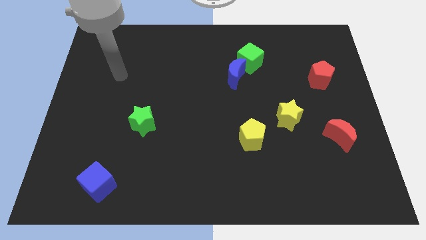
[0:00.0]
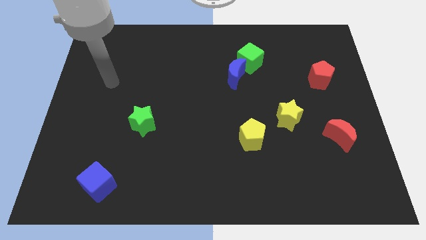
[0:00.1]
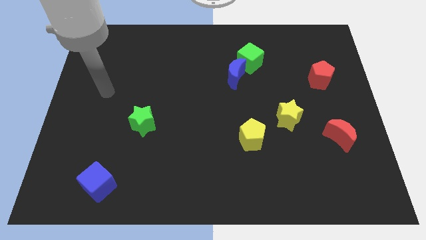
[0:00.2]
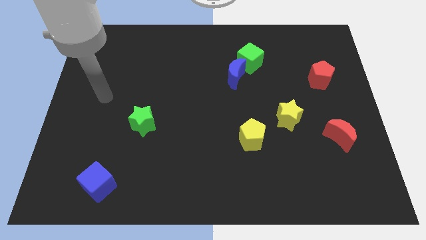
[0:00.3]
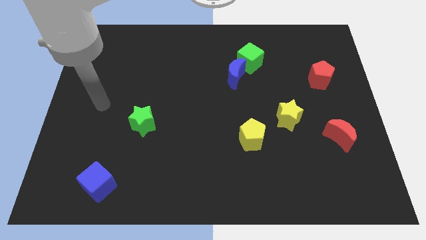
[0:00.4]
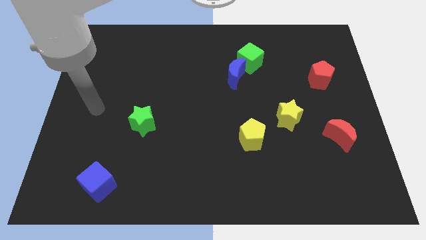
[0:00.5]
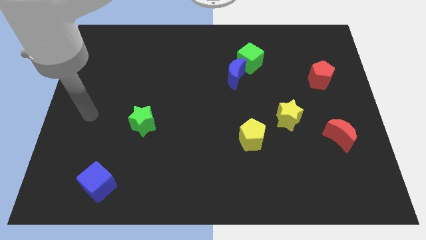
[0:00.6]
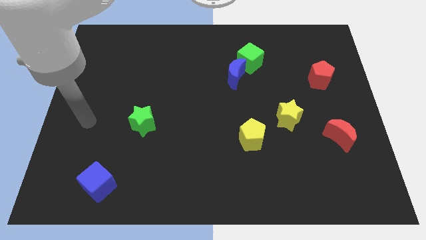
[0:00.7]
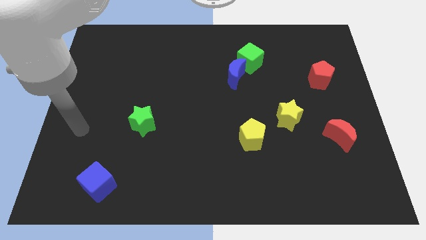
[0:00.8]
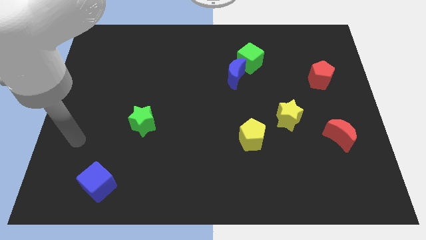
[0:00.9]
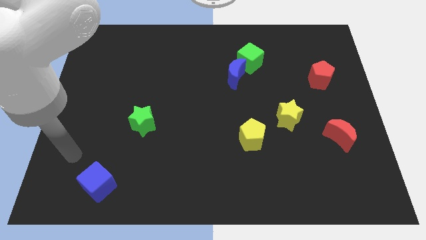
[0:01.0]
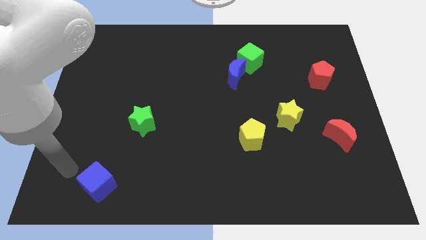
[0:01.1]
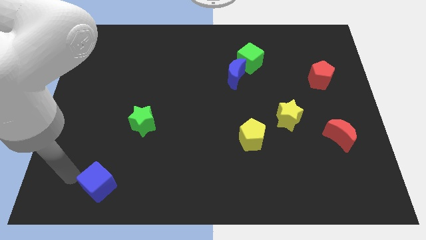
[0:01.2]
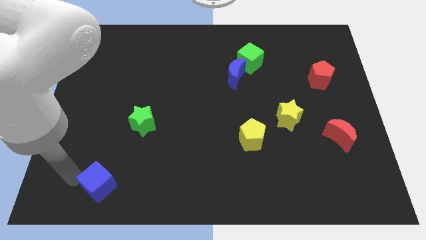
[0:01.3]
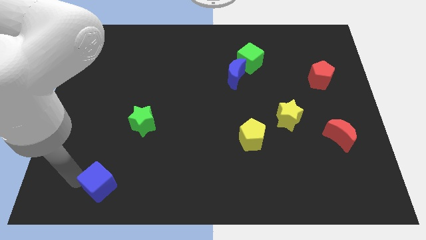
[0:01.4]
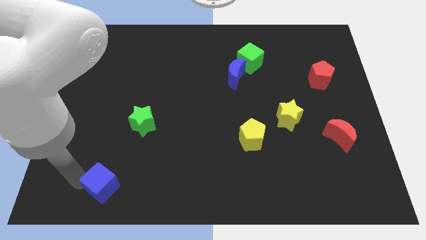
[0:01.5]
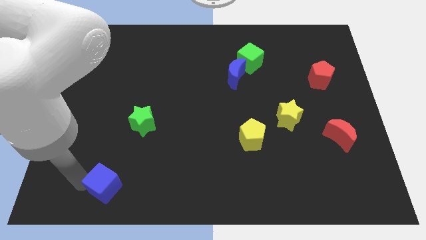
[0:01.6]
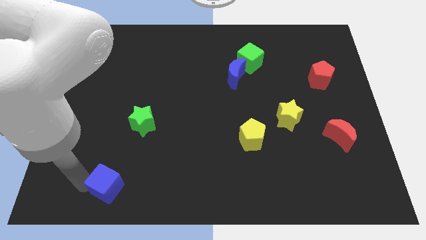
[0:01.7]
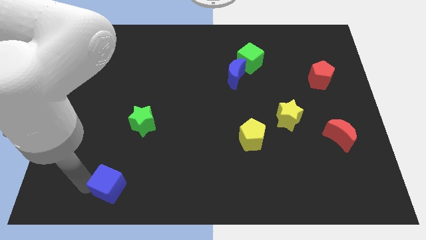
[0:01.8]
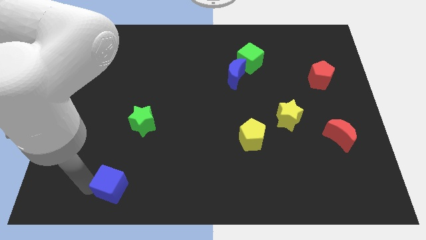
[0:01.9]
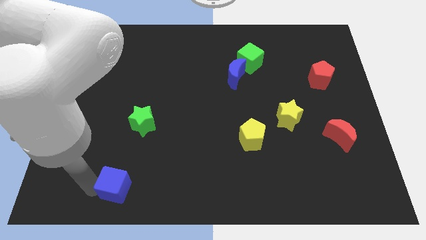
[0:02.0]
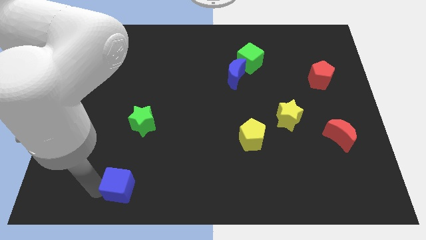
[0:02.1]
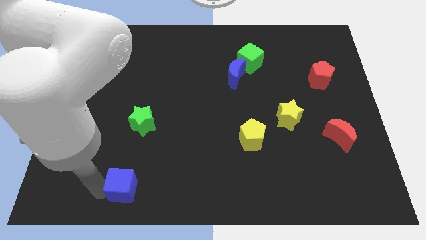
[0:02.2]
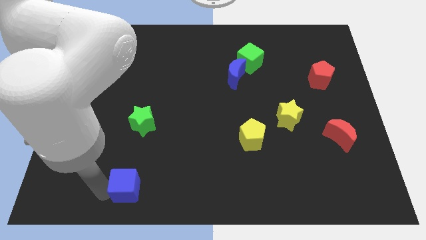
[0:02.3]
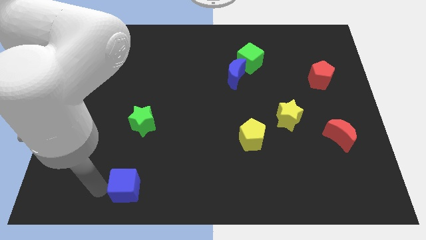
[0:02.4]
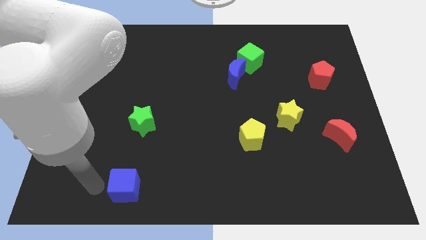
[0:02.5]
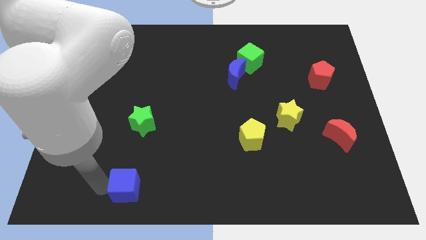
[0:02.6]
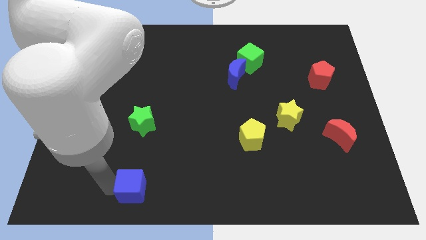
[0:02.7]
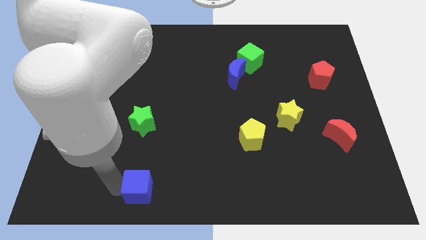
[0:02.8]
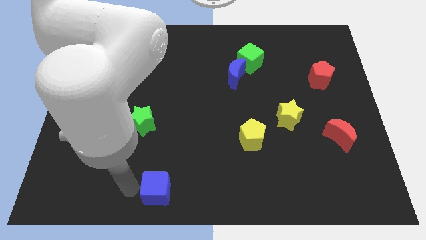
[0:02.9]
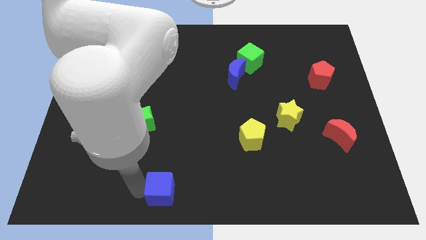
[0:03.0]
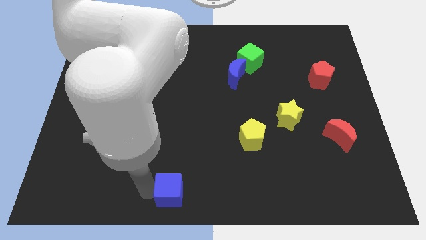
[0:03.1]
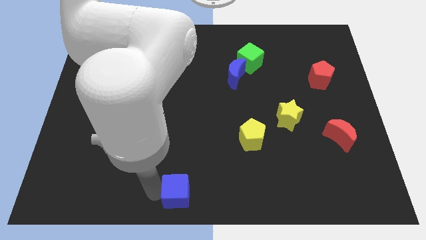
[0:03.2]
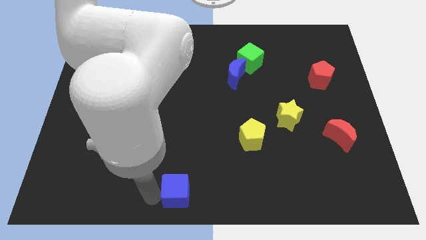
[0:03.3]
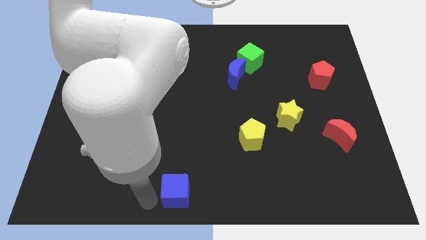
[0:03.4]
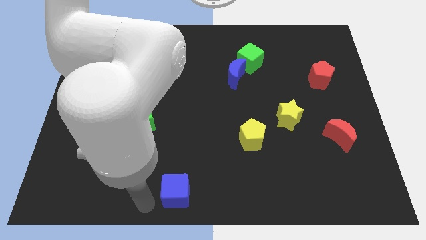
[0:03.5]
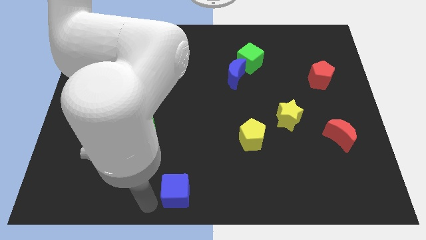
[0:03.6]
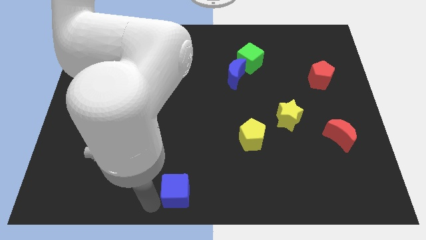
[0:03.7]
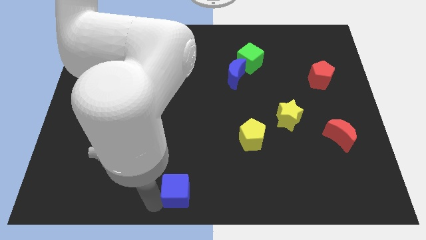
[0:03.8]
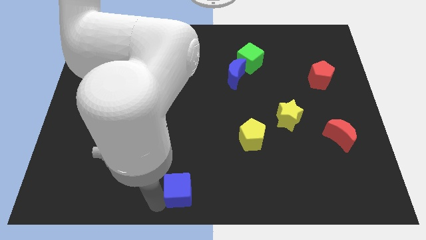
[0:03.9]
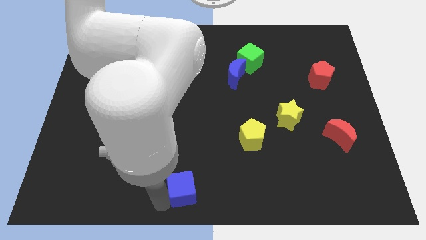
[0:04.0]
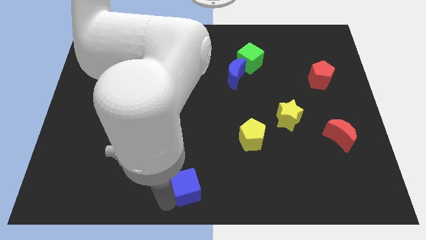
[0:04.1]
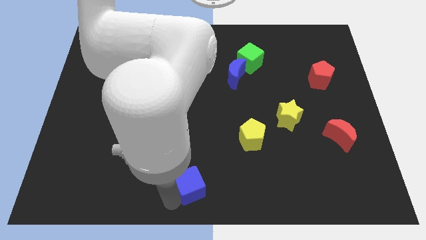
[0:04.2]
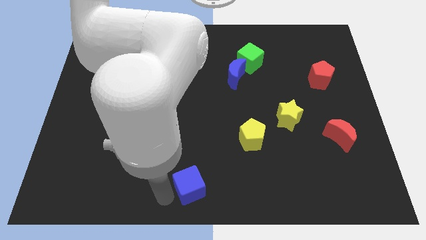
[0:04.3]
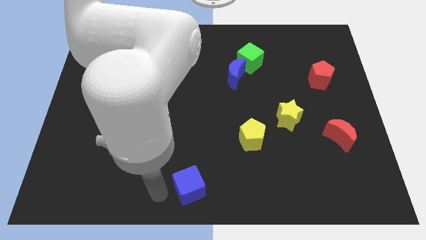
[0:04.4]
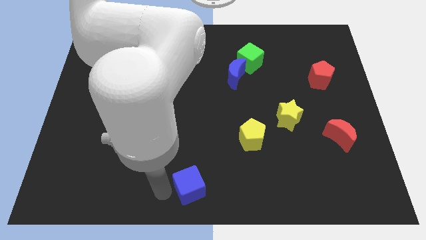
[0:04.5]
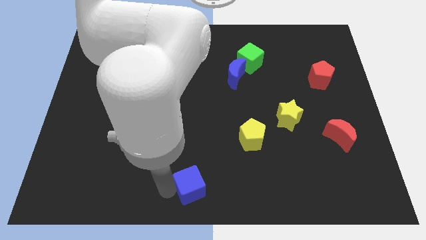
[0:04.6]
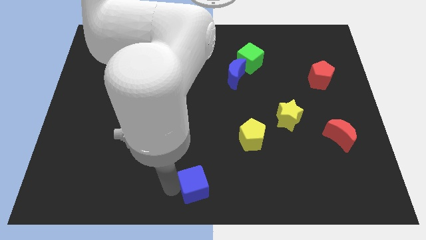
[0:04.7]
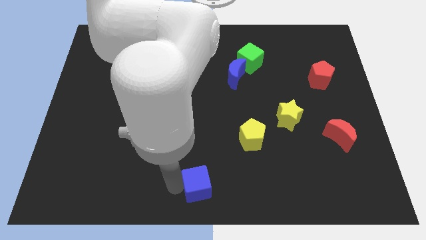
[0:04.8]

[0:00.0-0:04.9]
slide the blue cube to the right

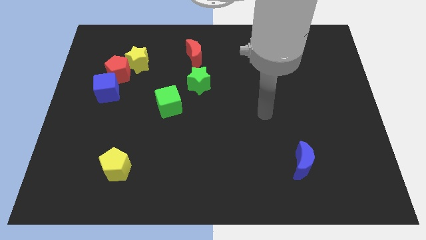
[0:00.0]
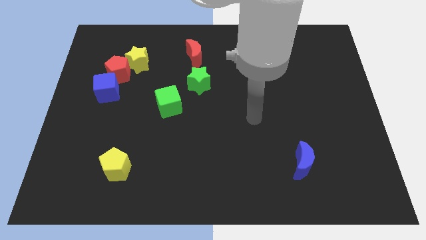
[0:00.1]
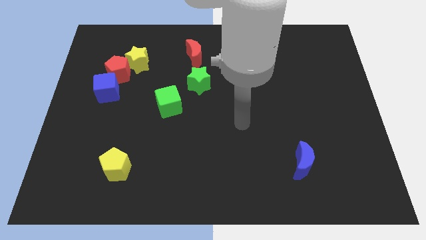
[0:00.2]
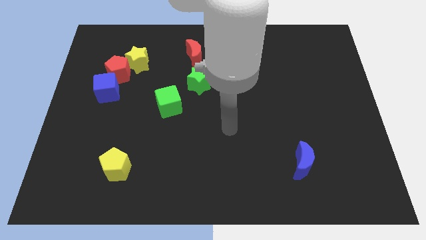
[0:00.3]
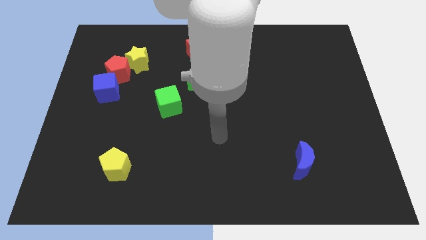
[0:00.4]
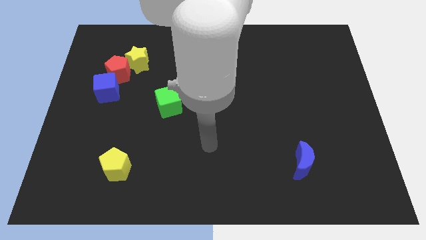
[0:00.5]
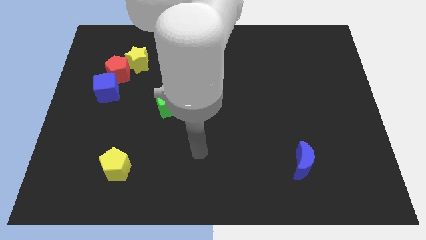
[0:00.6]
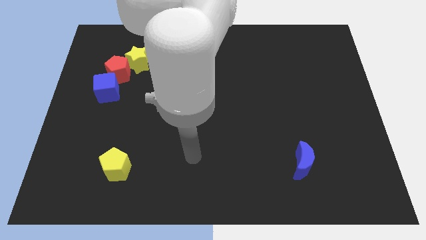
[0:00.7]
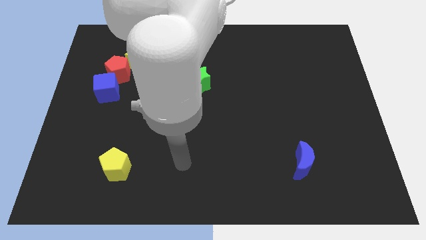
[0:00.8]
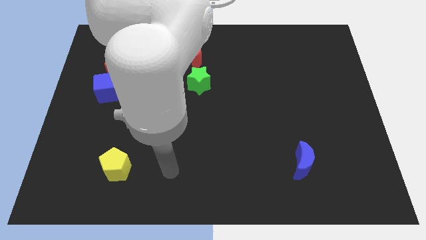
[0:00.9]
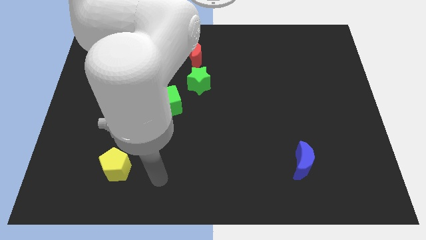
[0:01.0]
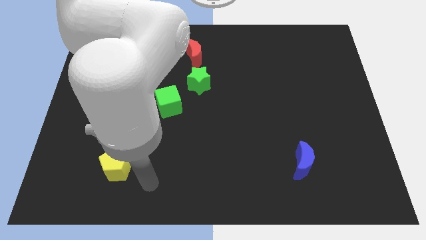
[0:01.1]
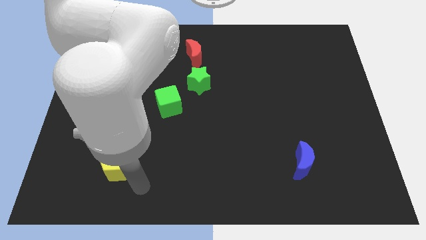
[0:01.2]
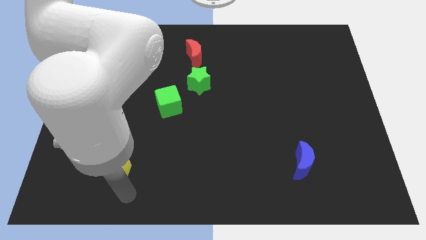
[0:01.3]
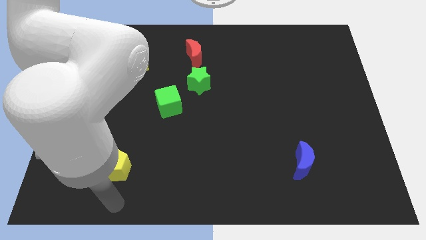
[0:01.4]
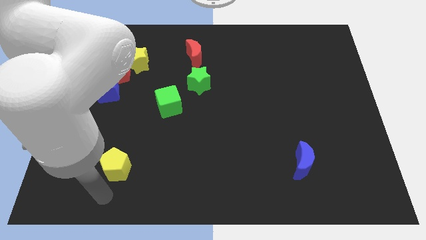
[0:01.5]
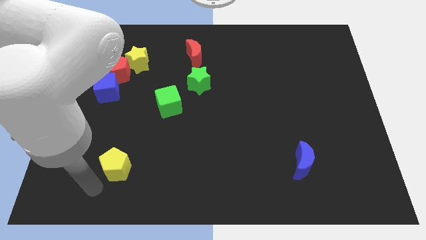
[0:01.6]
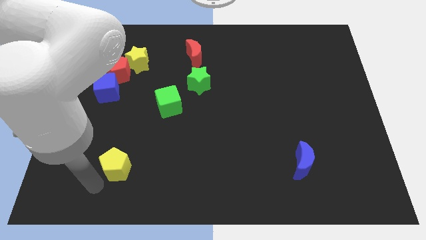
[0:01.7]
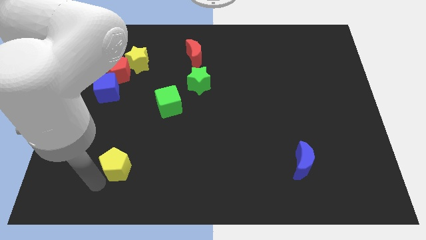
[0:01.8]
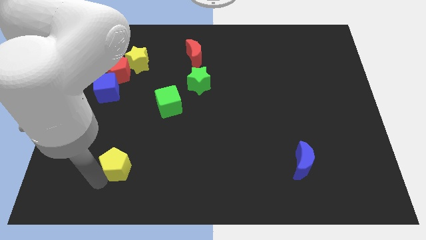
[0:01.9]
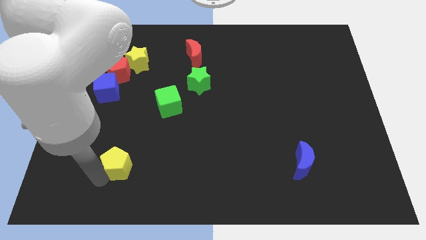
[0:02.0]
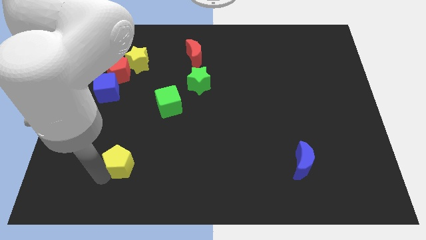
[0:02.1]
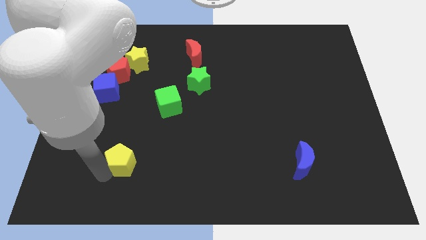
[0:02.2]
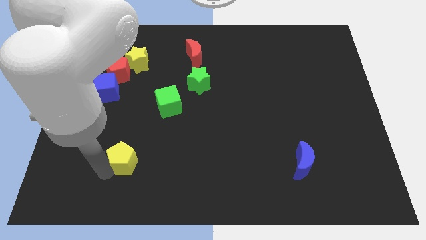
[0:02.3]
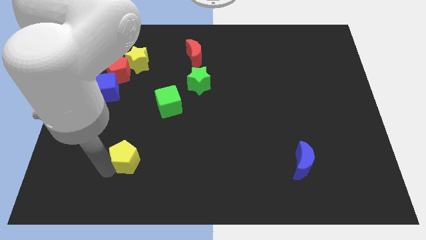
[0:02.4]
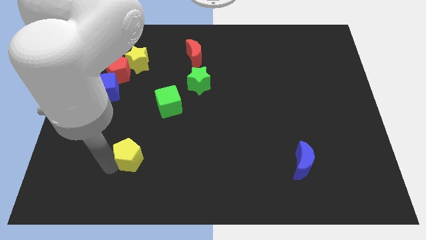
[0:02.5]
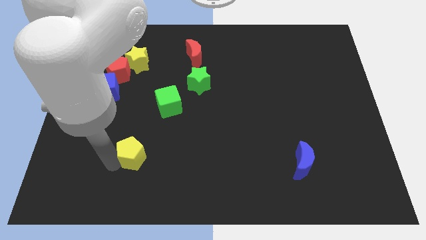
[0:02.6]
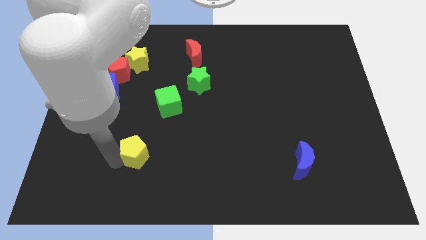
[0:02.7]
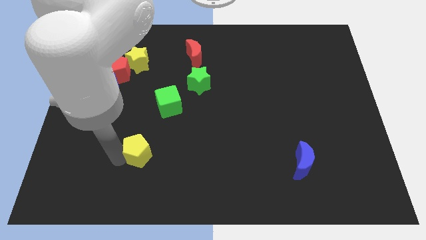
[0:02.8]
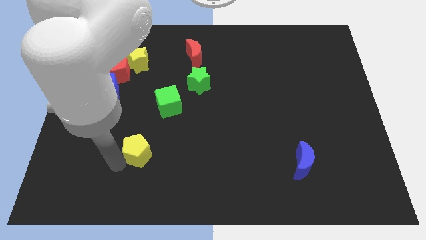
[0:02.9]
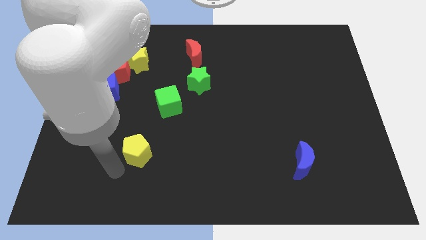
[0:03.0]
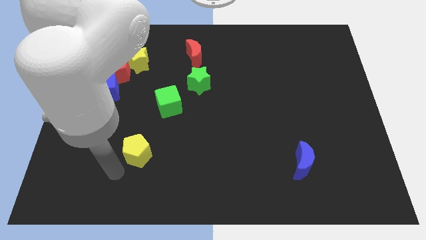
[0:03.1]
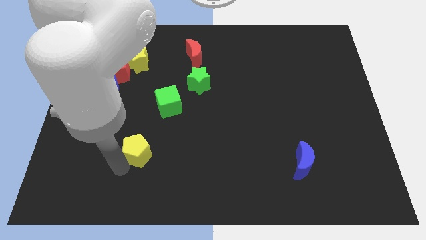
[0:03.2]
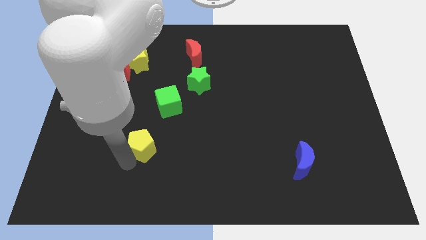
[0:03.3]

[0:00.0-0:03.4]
push the yellow pentagon diagonally upwards and to the right a little bit
